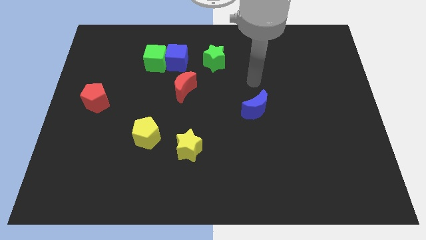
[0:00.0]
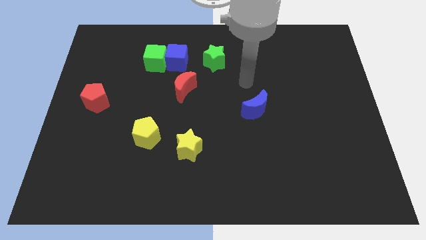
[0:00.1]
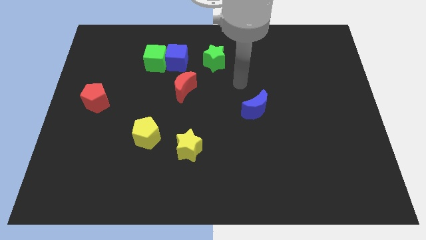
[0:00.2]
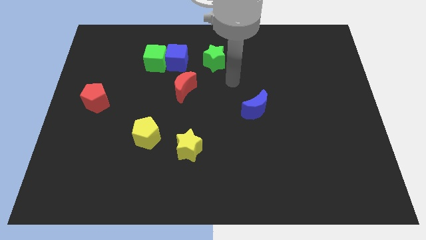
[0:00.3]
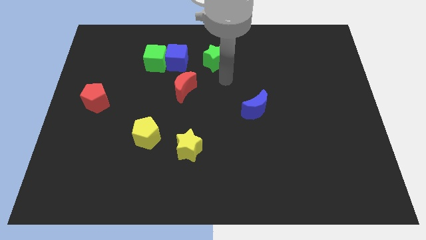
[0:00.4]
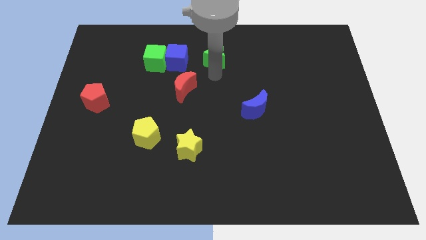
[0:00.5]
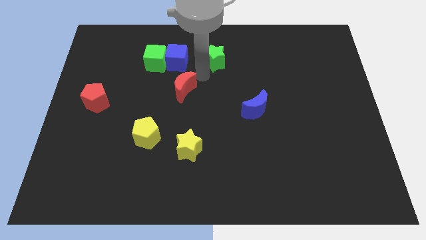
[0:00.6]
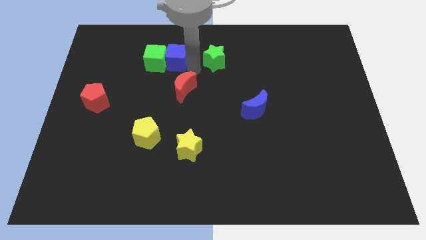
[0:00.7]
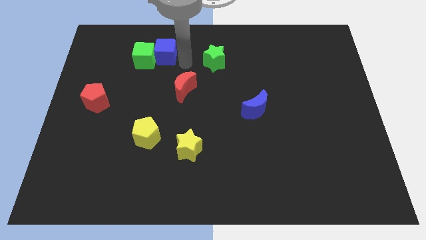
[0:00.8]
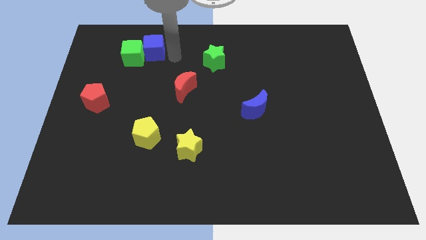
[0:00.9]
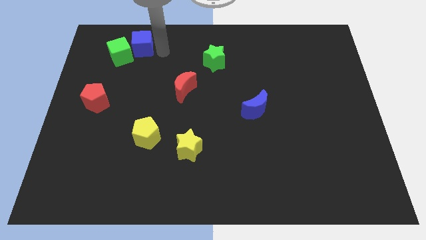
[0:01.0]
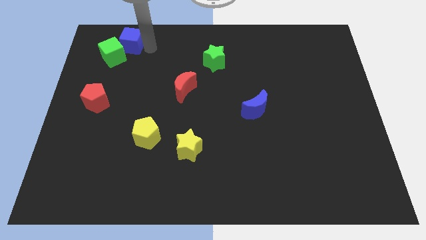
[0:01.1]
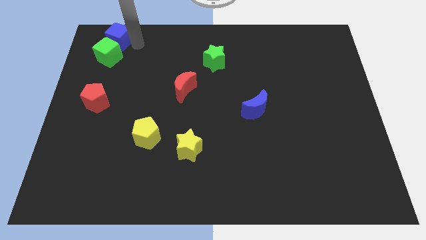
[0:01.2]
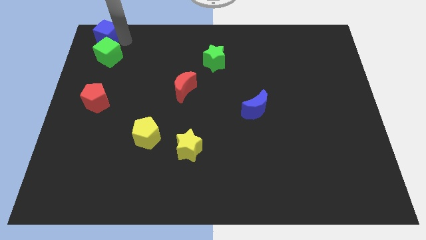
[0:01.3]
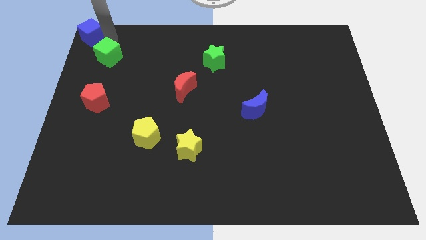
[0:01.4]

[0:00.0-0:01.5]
separate the green cube from the blue cube

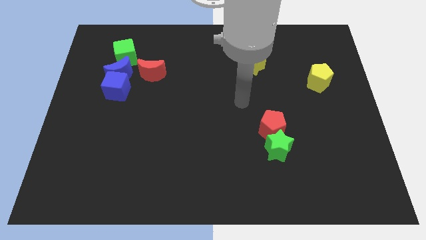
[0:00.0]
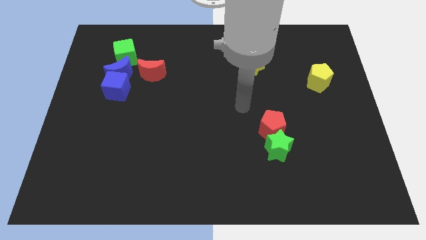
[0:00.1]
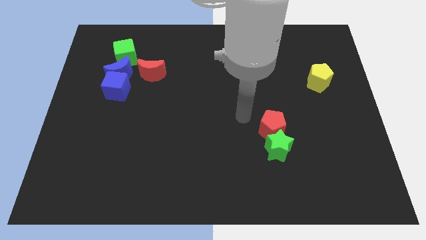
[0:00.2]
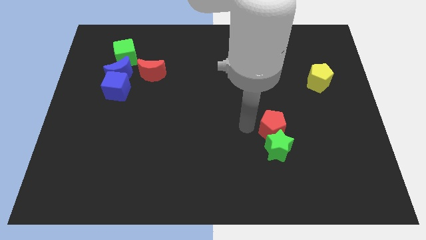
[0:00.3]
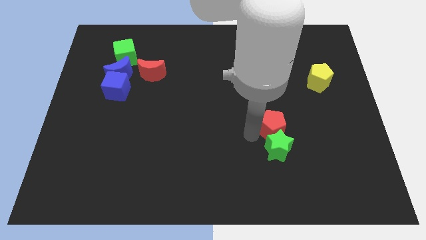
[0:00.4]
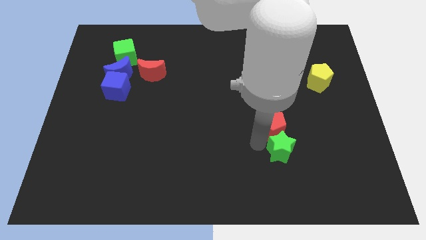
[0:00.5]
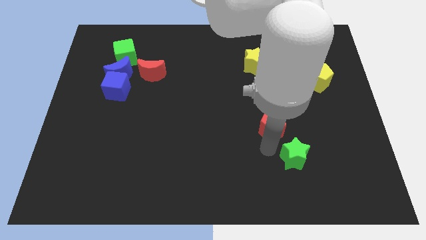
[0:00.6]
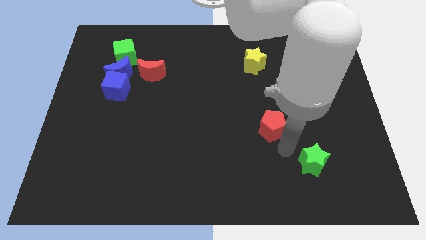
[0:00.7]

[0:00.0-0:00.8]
separate the red pentagon from the green star

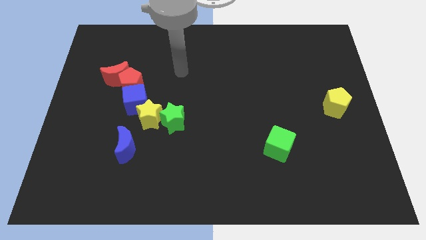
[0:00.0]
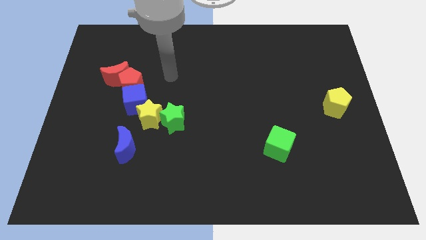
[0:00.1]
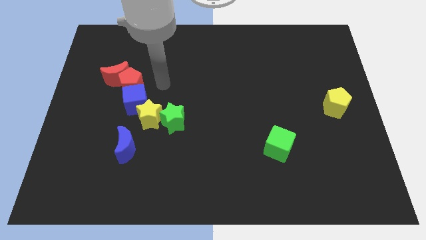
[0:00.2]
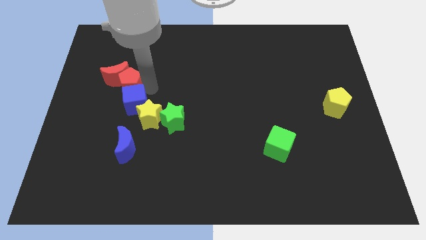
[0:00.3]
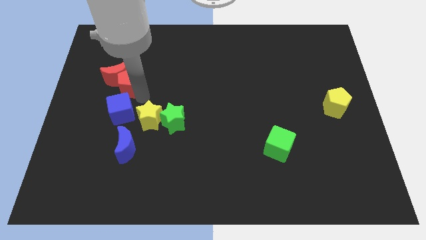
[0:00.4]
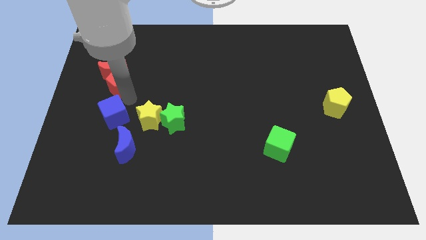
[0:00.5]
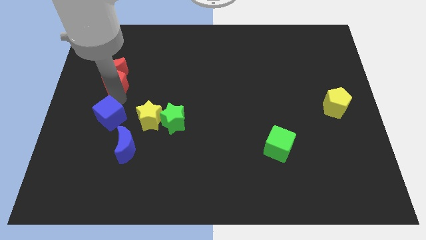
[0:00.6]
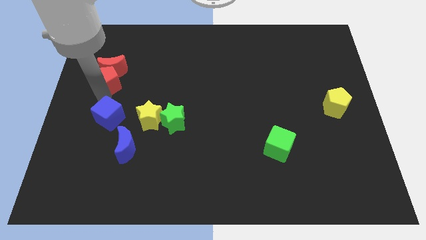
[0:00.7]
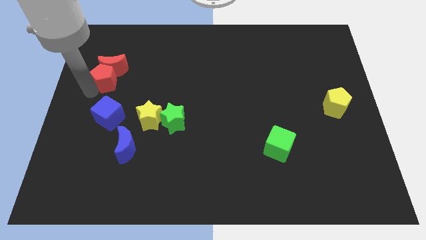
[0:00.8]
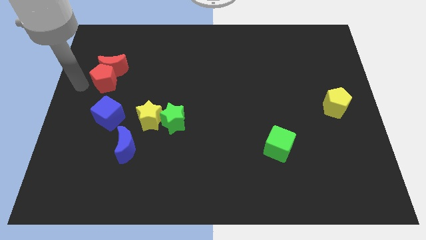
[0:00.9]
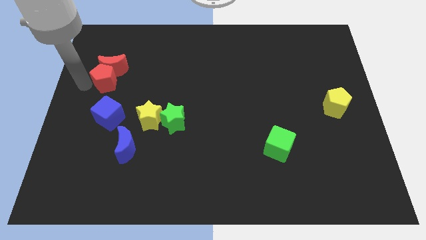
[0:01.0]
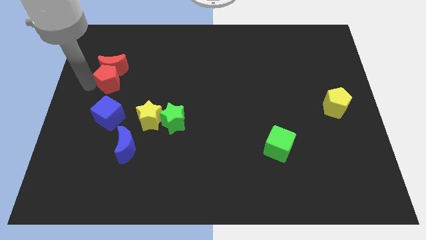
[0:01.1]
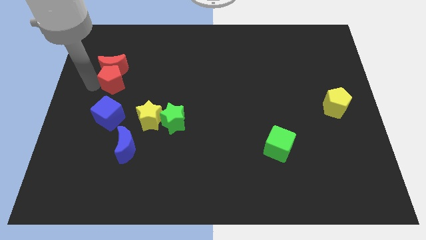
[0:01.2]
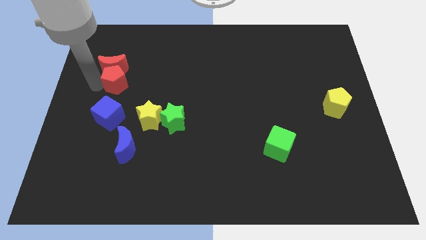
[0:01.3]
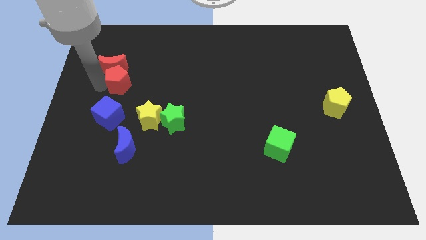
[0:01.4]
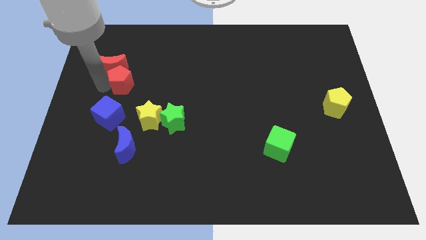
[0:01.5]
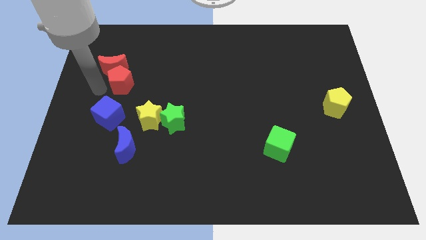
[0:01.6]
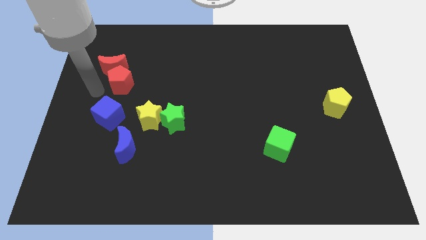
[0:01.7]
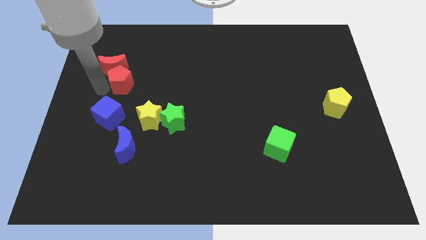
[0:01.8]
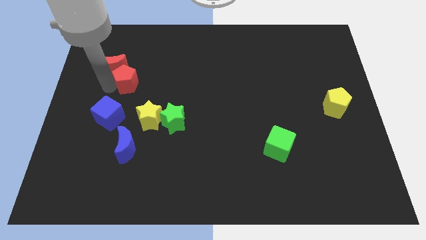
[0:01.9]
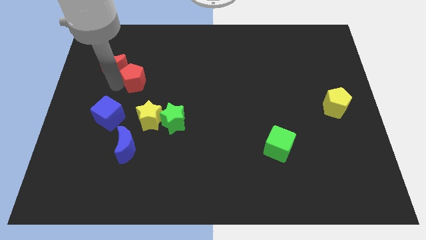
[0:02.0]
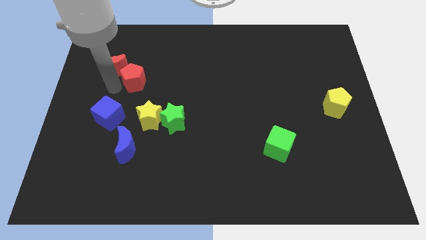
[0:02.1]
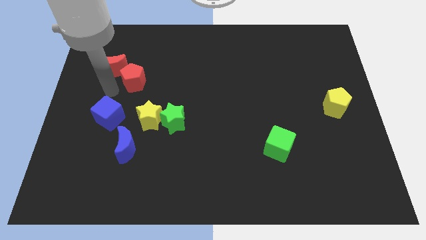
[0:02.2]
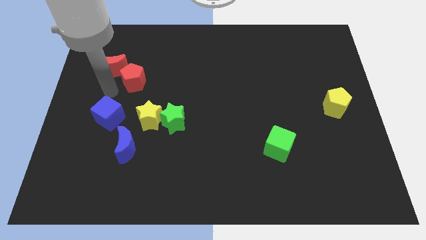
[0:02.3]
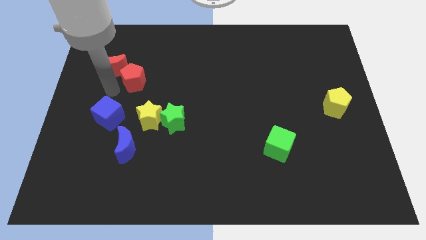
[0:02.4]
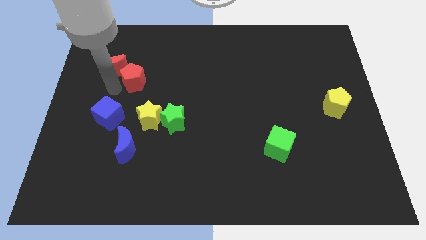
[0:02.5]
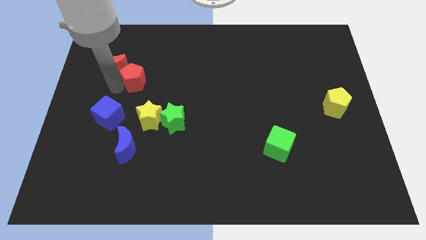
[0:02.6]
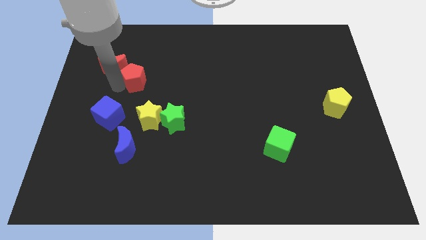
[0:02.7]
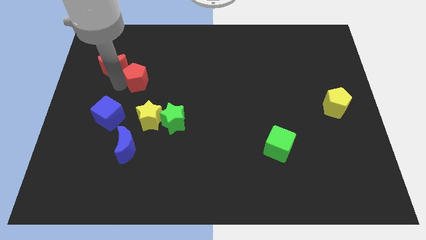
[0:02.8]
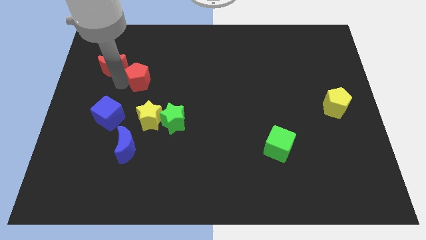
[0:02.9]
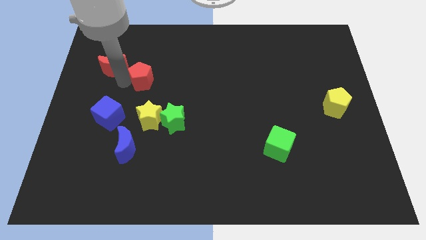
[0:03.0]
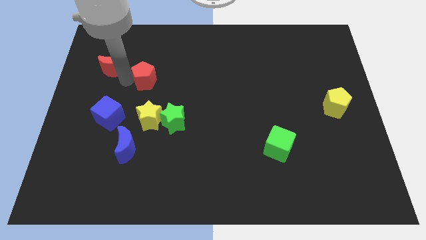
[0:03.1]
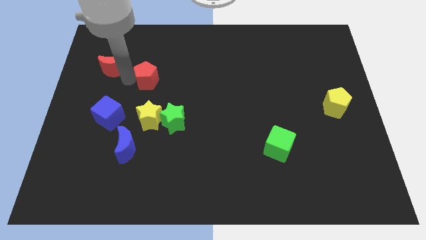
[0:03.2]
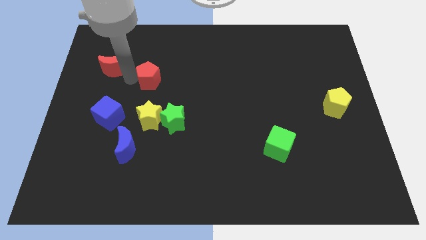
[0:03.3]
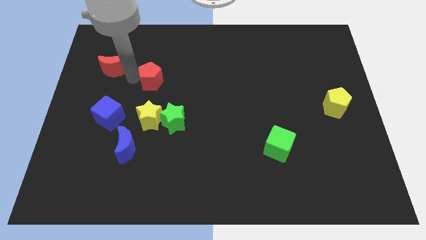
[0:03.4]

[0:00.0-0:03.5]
move the red pentagon away from the red moon and blue cube

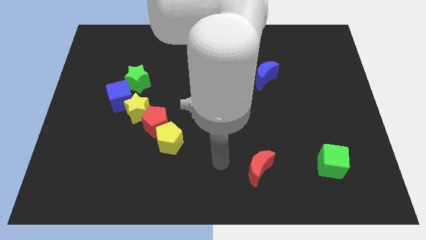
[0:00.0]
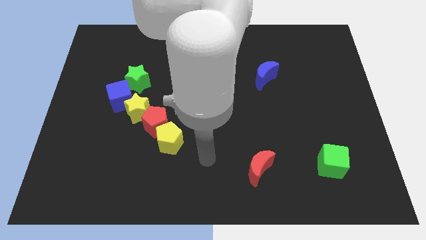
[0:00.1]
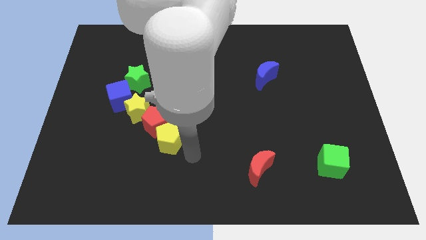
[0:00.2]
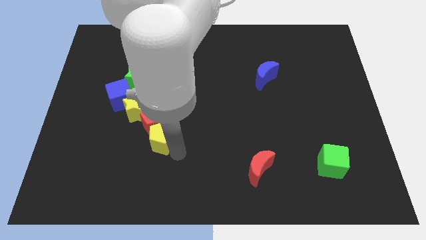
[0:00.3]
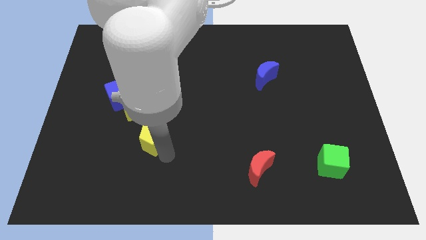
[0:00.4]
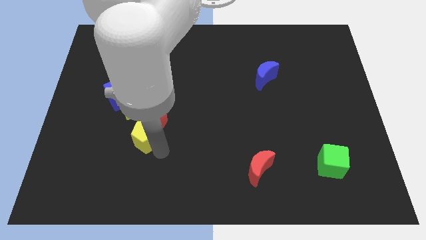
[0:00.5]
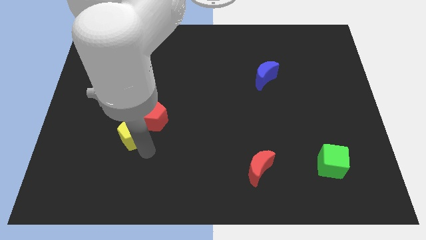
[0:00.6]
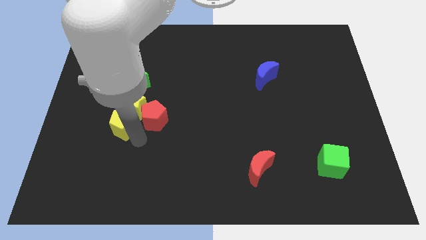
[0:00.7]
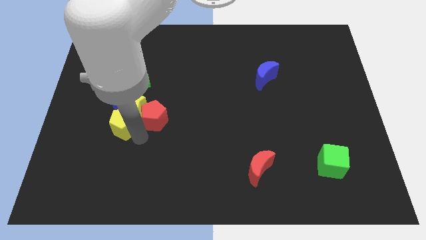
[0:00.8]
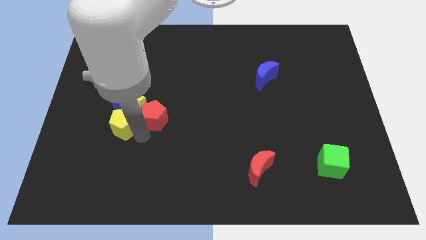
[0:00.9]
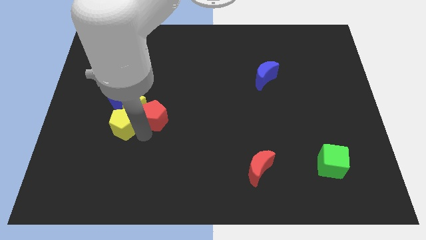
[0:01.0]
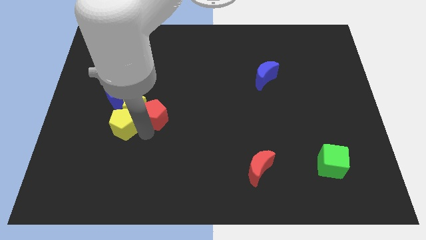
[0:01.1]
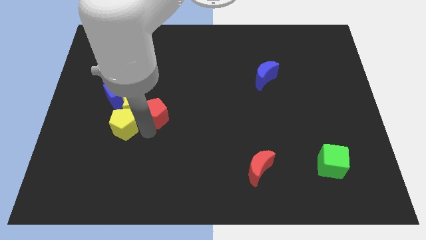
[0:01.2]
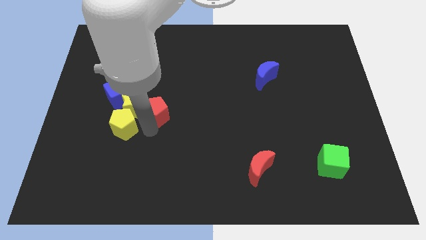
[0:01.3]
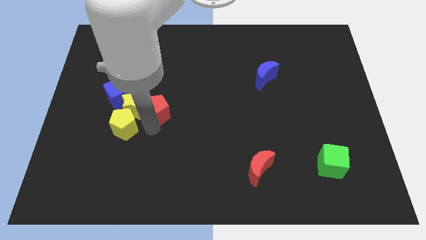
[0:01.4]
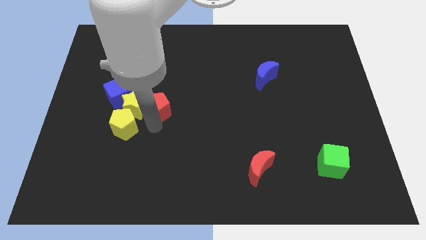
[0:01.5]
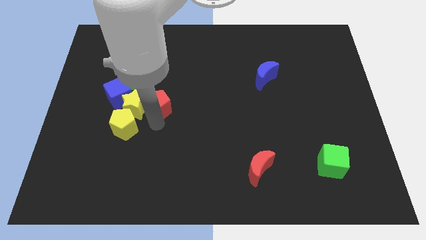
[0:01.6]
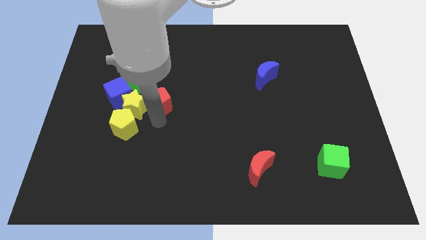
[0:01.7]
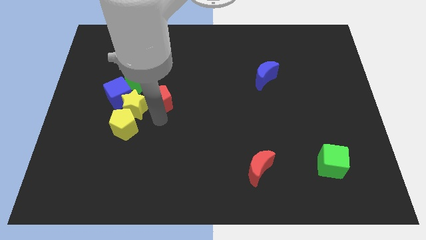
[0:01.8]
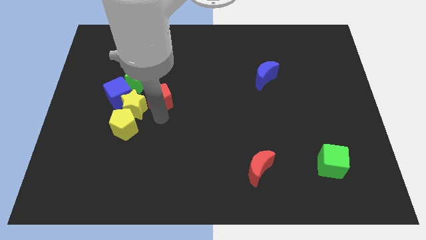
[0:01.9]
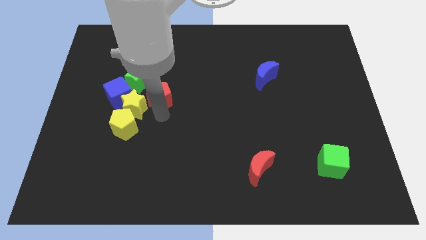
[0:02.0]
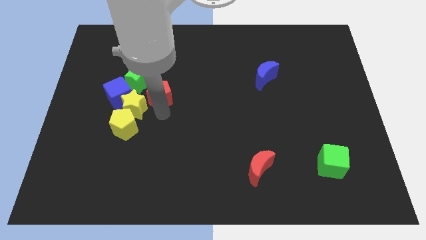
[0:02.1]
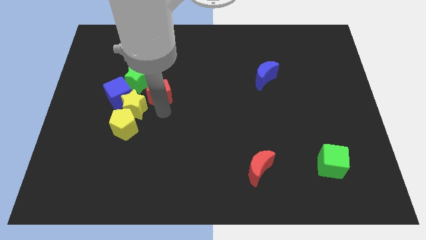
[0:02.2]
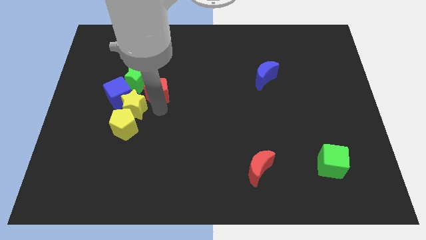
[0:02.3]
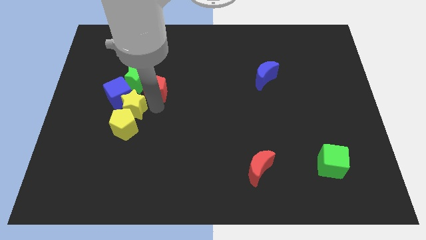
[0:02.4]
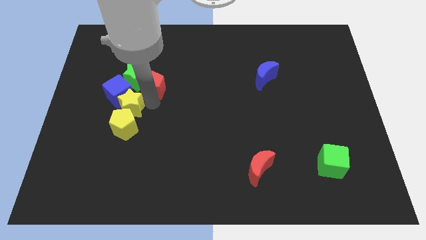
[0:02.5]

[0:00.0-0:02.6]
separate the red pentagon from the yellow star and yellow pentagon

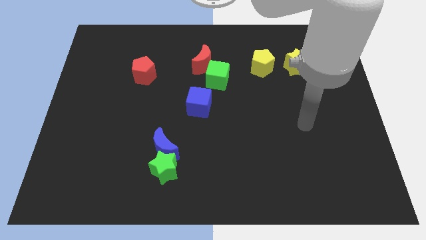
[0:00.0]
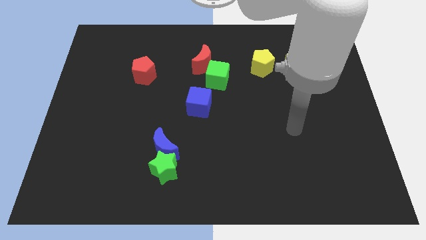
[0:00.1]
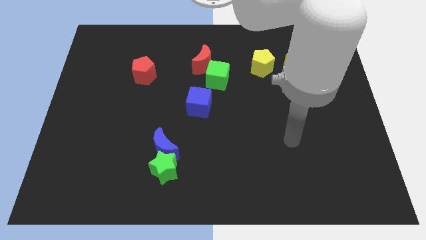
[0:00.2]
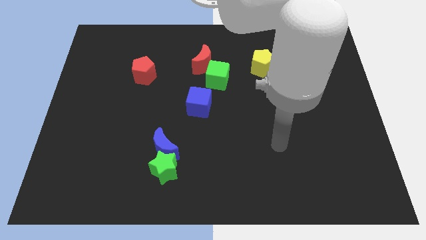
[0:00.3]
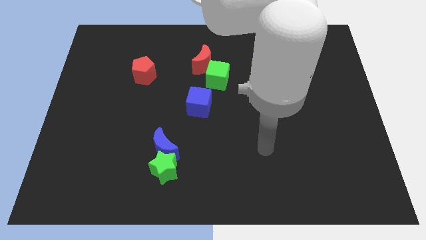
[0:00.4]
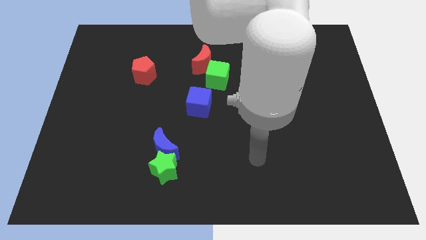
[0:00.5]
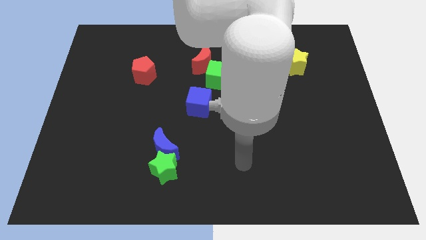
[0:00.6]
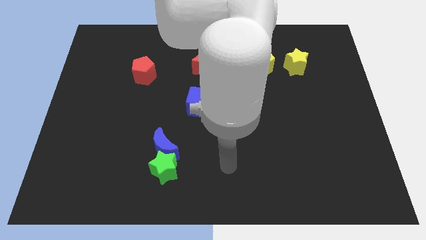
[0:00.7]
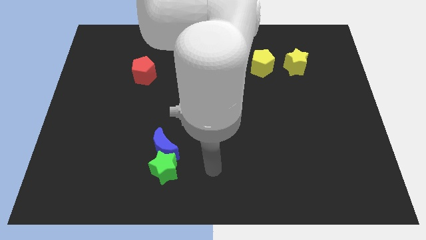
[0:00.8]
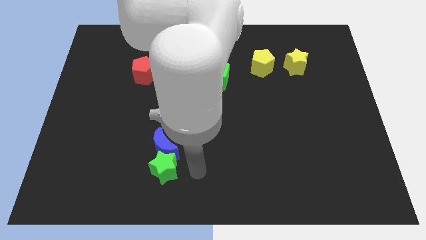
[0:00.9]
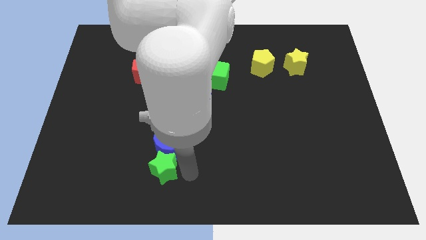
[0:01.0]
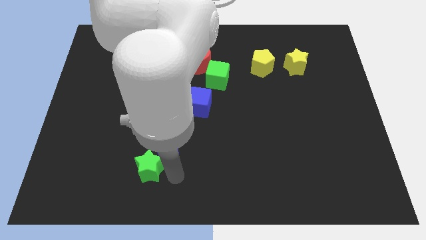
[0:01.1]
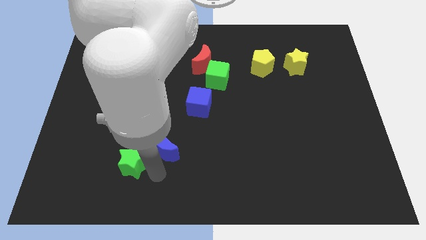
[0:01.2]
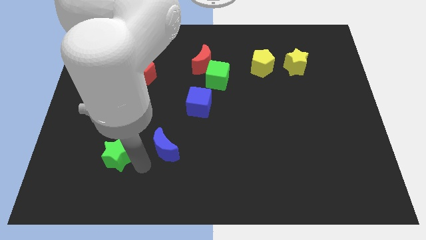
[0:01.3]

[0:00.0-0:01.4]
pull the blue moon apart from the green star
